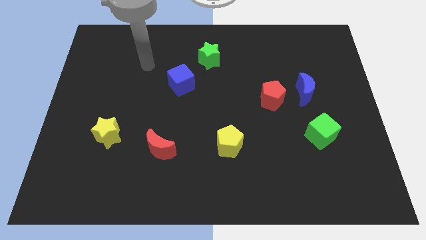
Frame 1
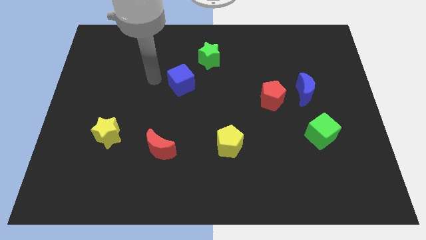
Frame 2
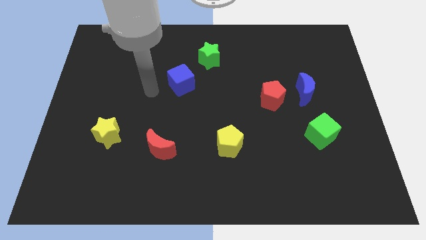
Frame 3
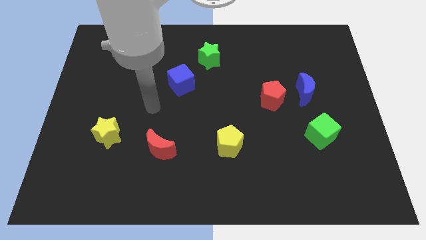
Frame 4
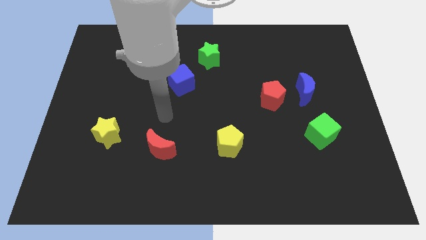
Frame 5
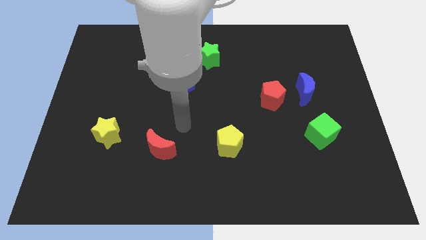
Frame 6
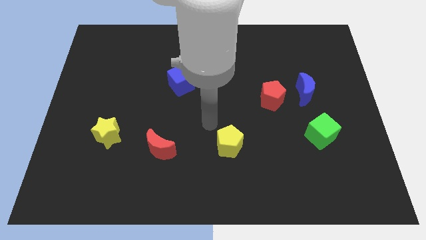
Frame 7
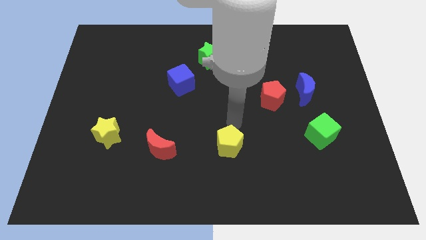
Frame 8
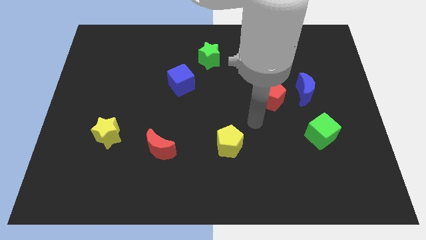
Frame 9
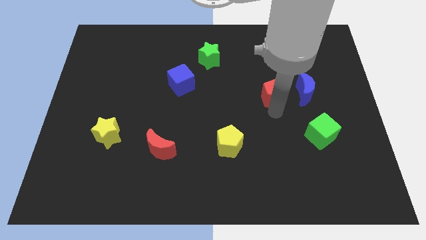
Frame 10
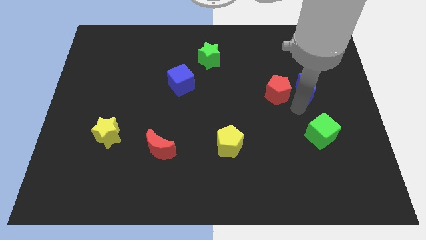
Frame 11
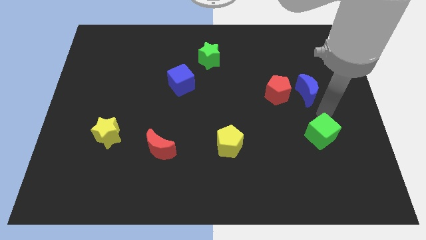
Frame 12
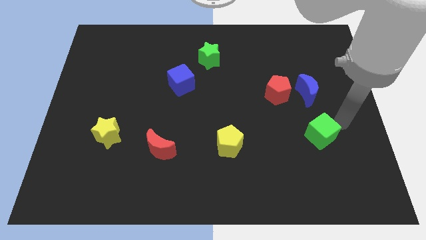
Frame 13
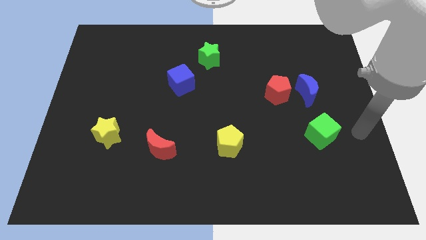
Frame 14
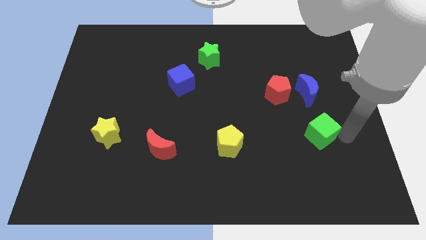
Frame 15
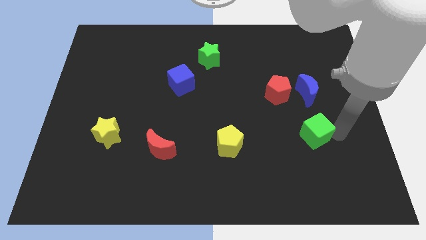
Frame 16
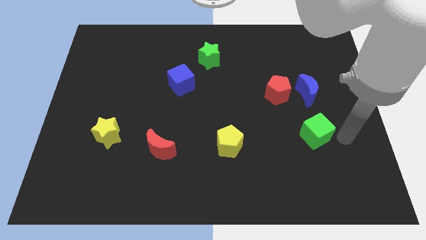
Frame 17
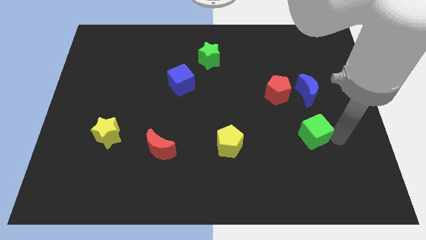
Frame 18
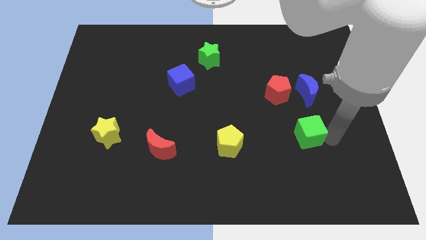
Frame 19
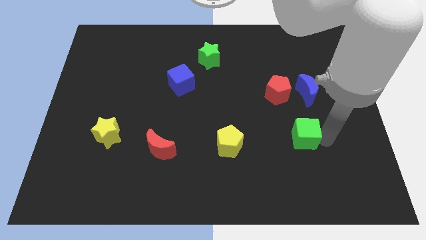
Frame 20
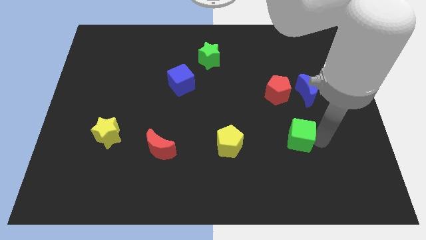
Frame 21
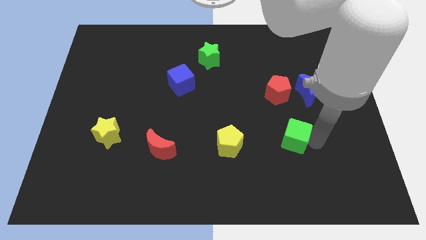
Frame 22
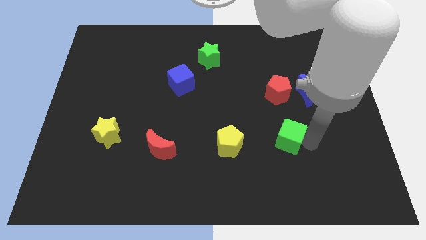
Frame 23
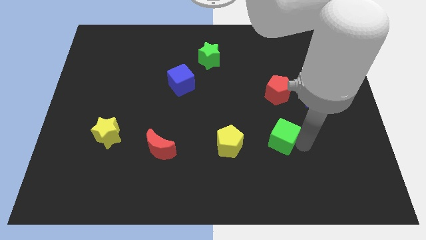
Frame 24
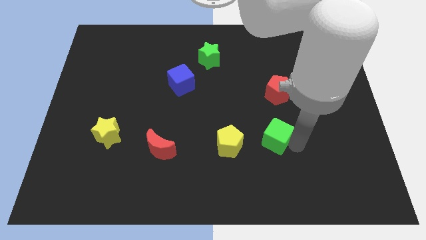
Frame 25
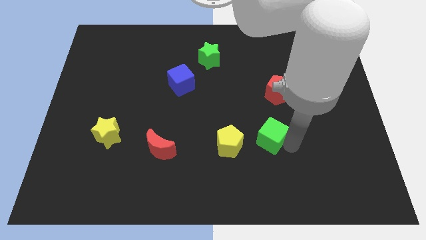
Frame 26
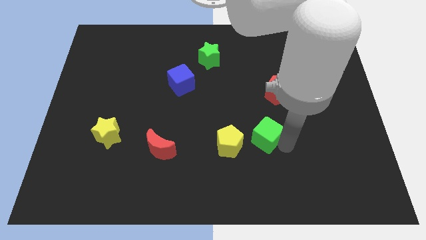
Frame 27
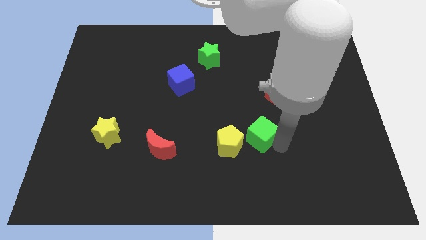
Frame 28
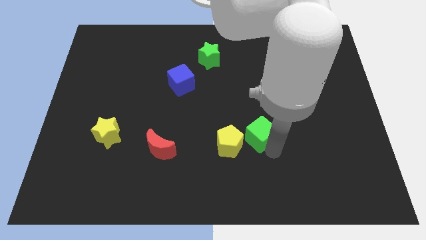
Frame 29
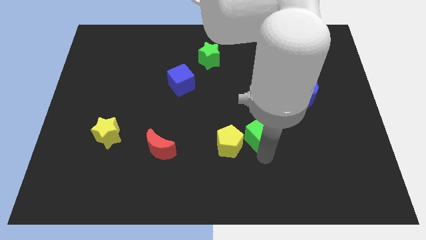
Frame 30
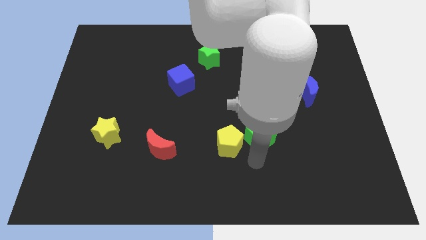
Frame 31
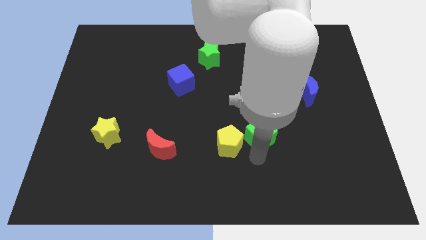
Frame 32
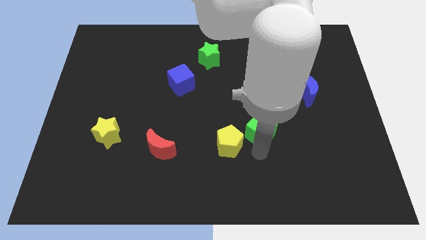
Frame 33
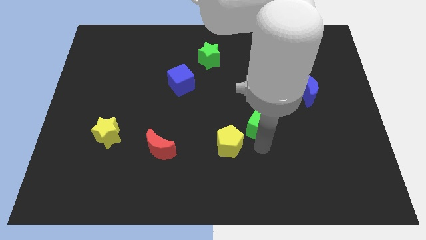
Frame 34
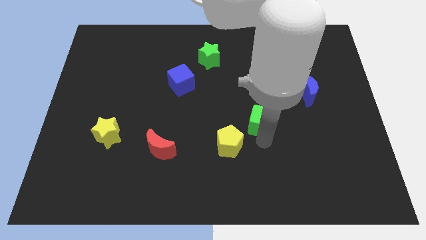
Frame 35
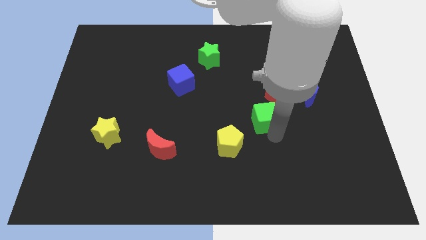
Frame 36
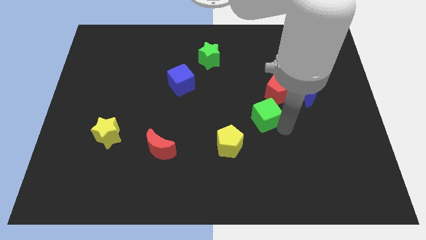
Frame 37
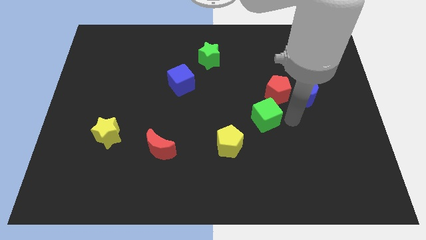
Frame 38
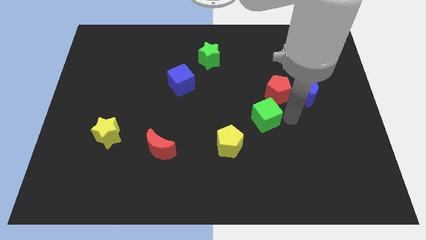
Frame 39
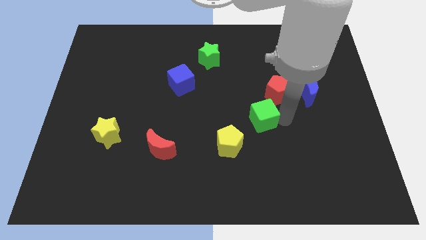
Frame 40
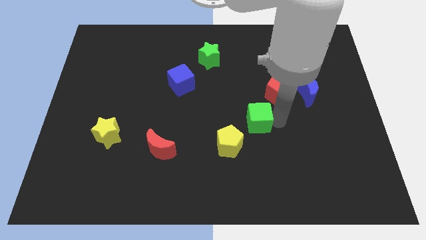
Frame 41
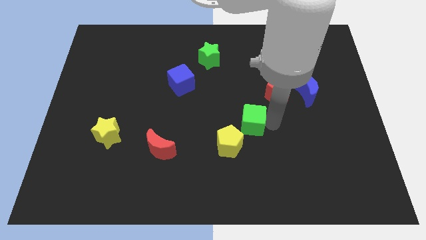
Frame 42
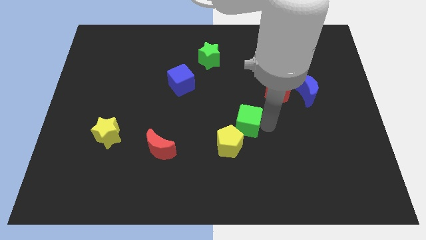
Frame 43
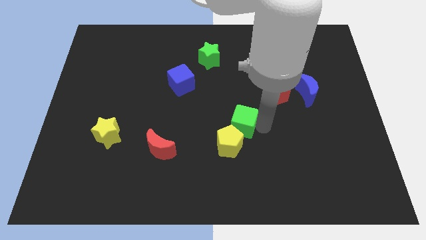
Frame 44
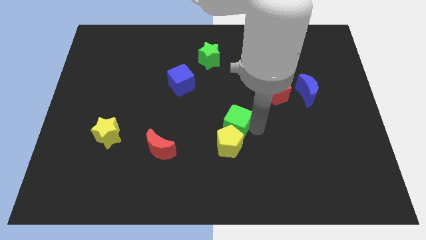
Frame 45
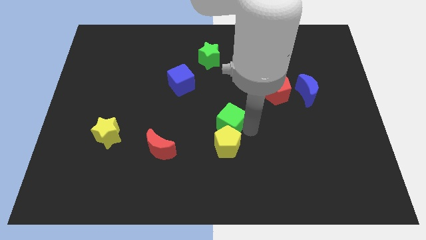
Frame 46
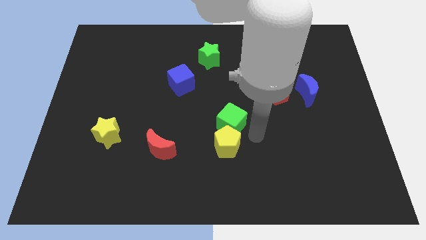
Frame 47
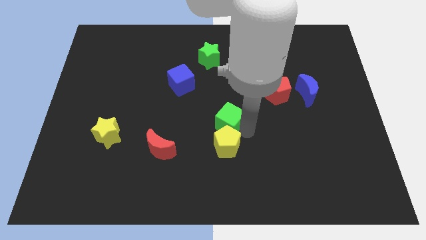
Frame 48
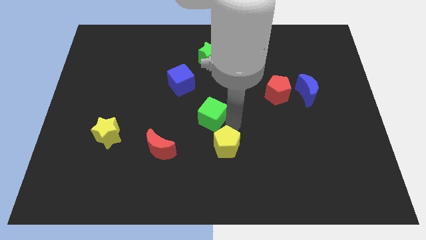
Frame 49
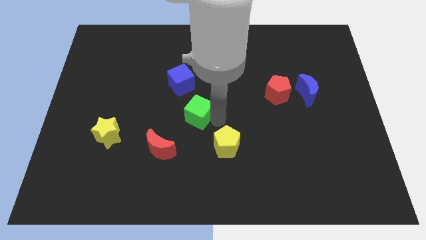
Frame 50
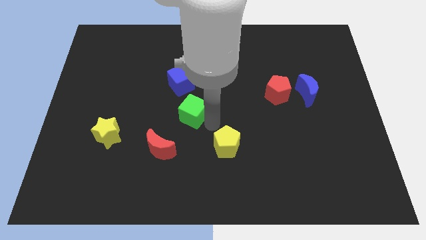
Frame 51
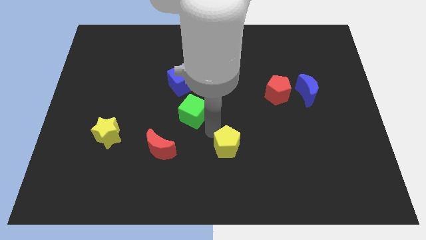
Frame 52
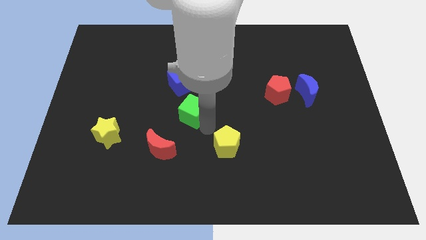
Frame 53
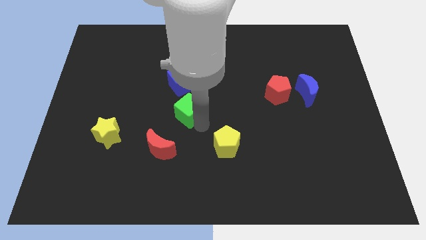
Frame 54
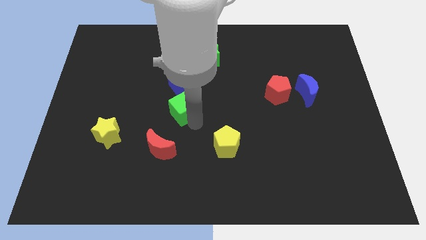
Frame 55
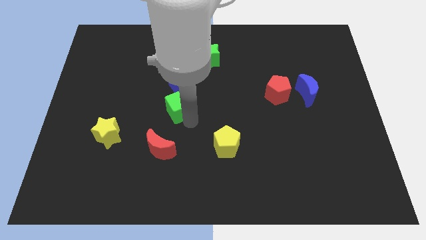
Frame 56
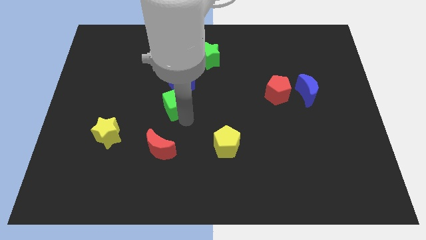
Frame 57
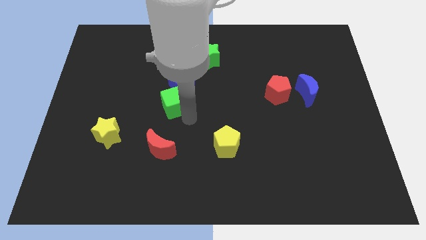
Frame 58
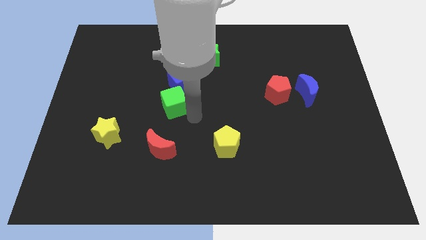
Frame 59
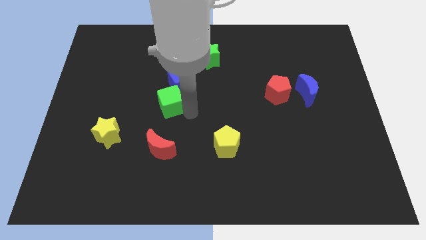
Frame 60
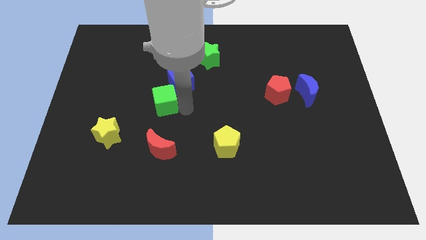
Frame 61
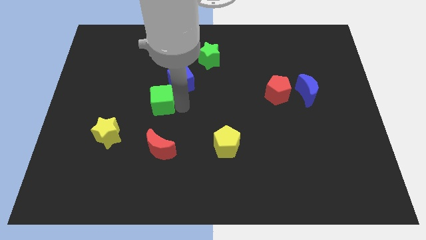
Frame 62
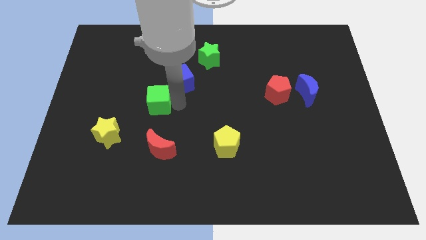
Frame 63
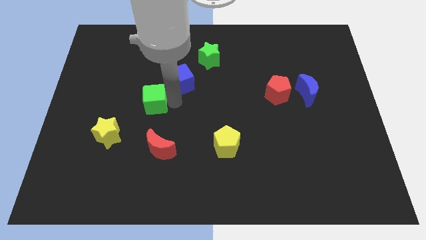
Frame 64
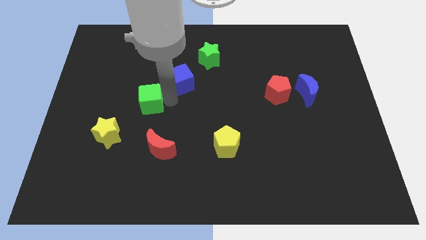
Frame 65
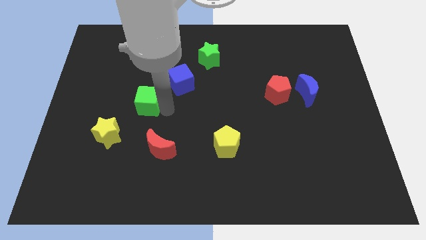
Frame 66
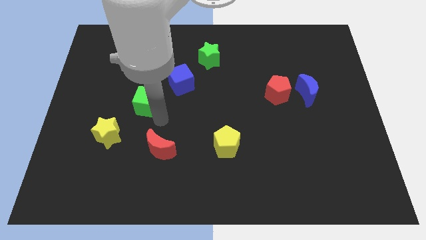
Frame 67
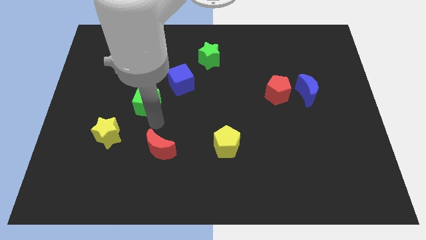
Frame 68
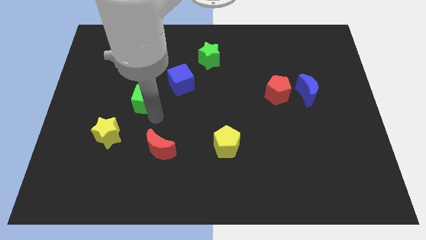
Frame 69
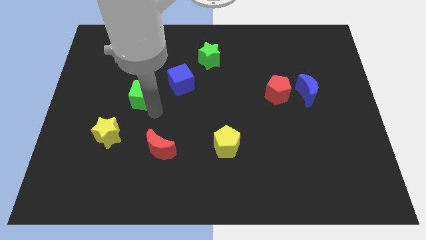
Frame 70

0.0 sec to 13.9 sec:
push the green cube just left of the blue cube
